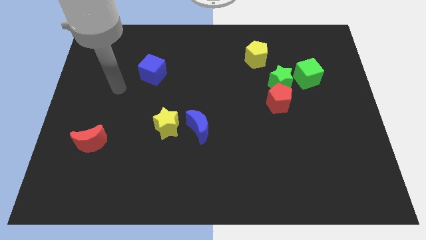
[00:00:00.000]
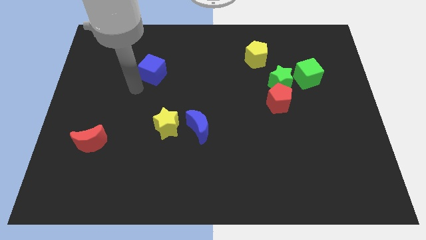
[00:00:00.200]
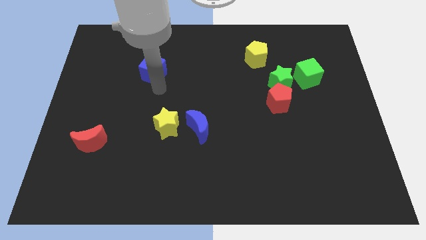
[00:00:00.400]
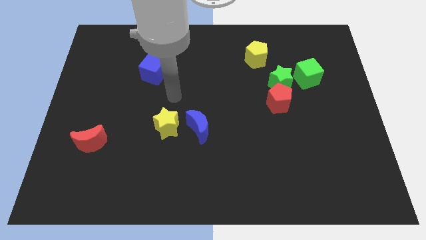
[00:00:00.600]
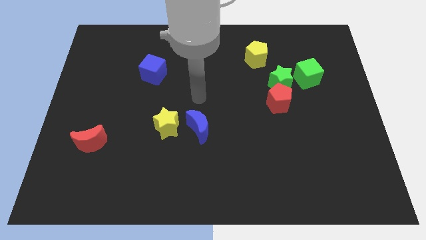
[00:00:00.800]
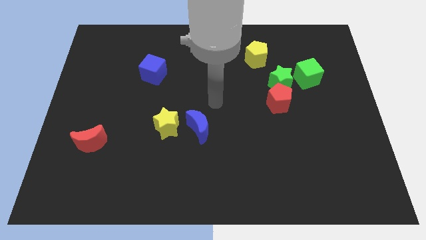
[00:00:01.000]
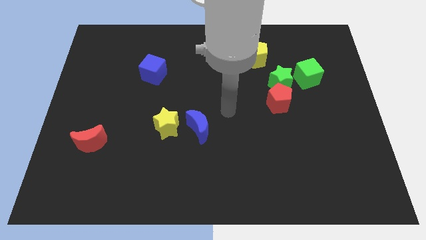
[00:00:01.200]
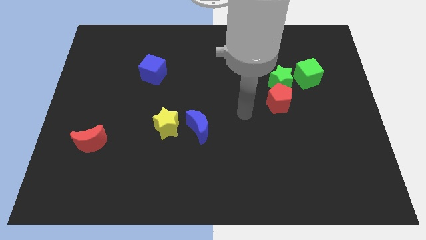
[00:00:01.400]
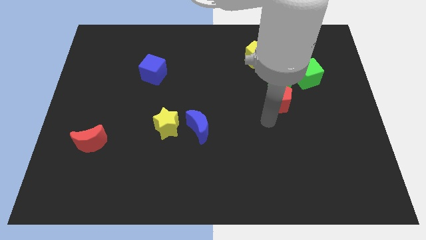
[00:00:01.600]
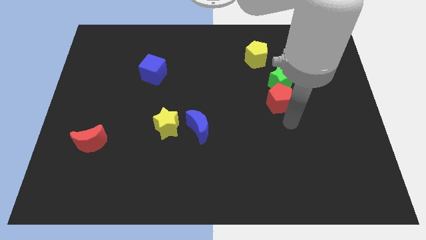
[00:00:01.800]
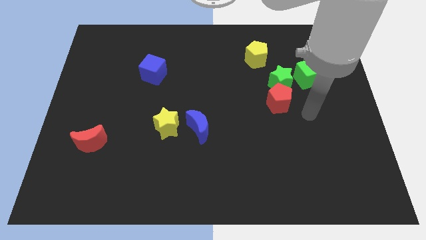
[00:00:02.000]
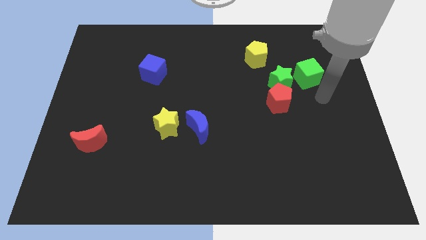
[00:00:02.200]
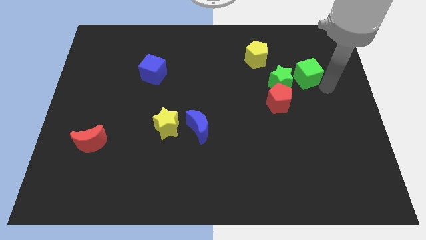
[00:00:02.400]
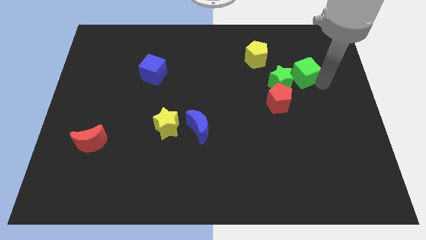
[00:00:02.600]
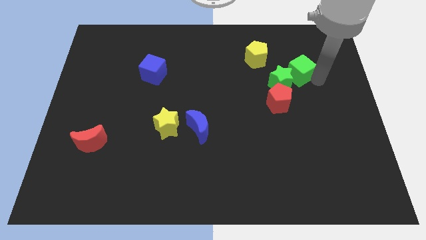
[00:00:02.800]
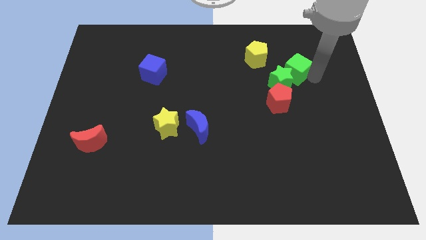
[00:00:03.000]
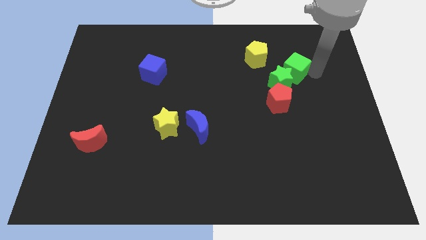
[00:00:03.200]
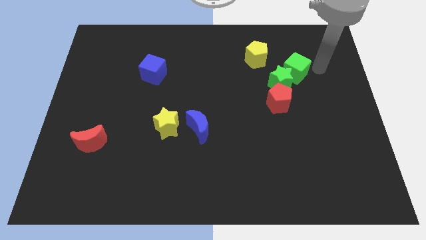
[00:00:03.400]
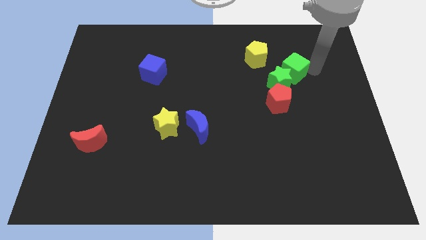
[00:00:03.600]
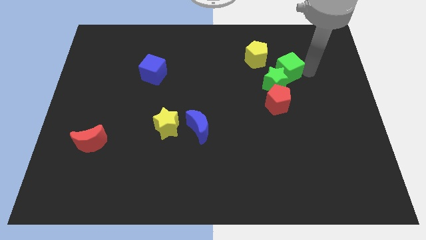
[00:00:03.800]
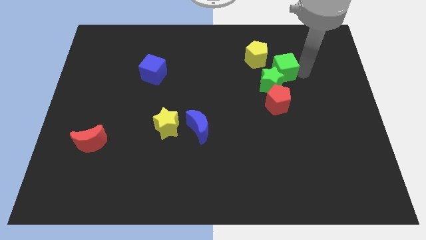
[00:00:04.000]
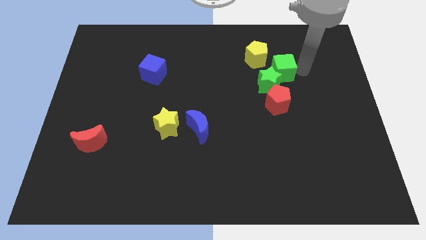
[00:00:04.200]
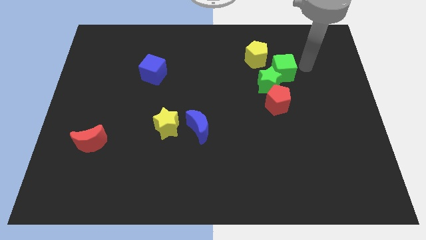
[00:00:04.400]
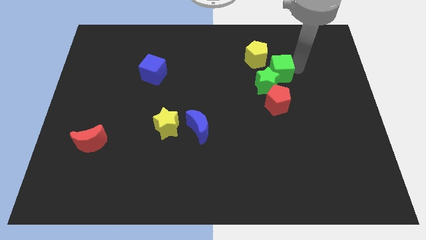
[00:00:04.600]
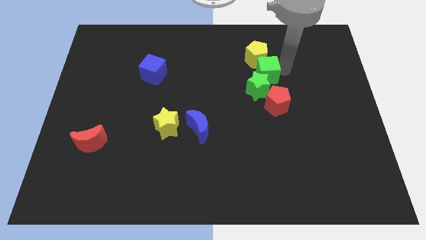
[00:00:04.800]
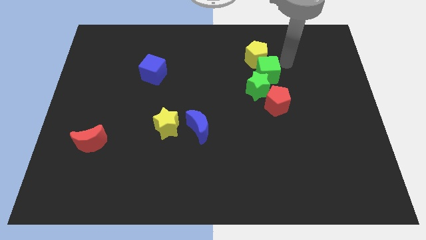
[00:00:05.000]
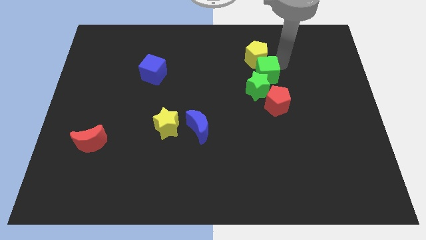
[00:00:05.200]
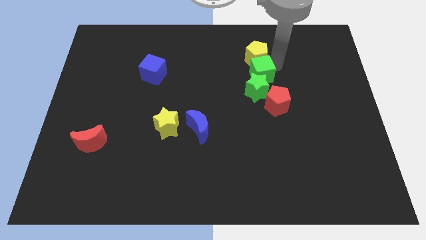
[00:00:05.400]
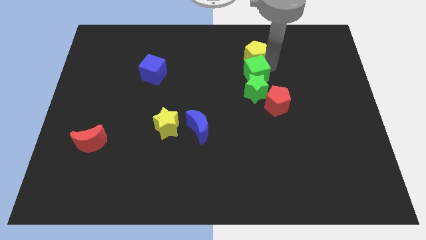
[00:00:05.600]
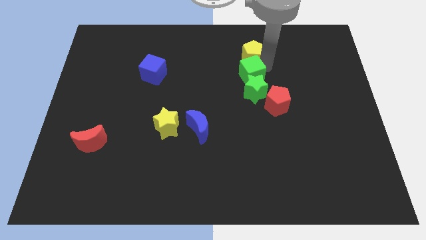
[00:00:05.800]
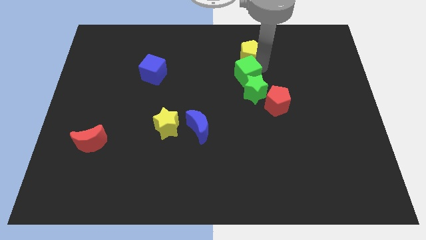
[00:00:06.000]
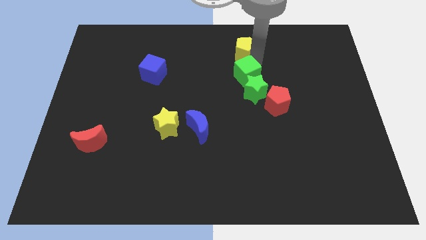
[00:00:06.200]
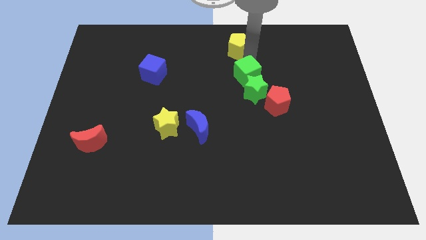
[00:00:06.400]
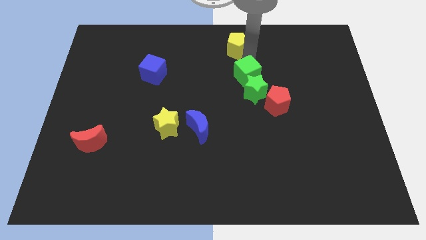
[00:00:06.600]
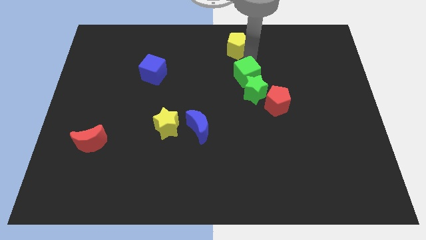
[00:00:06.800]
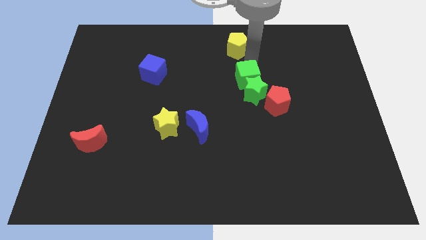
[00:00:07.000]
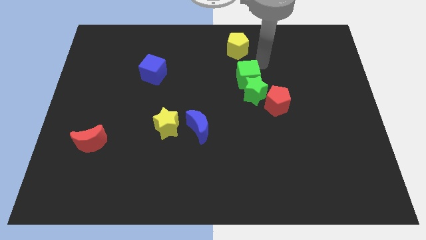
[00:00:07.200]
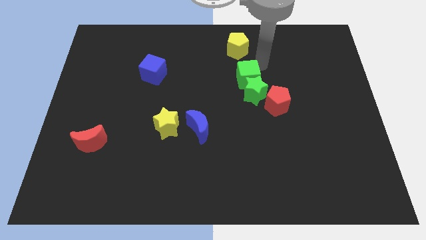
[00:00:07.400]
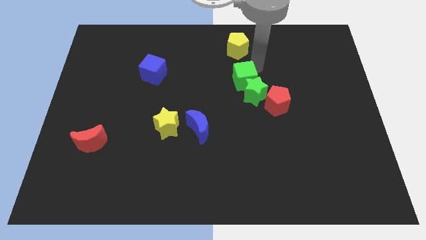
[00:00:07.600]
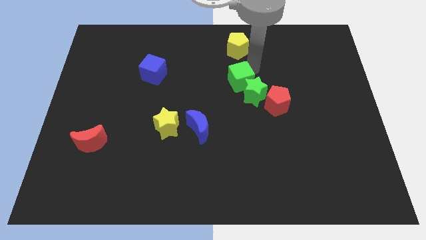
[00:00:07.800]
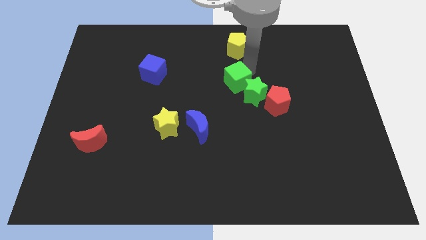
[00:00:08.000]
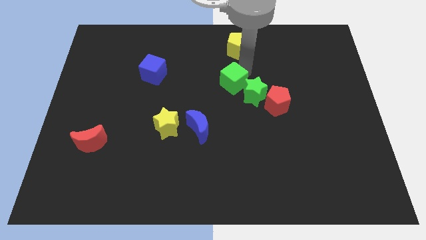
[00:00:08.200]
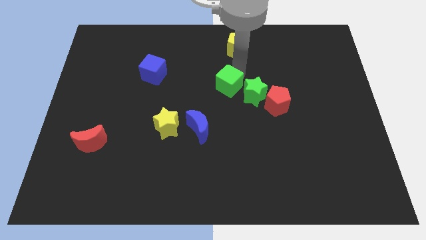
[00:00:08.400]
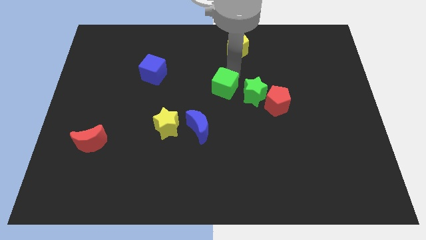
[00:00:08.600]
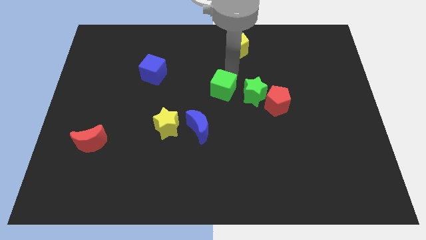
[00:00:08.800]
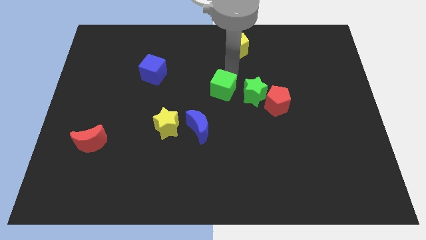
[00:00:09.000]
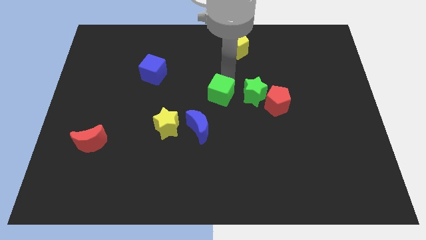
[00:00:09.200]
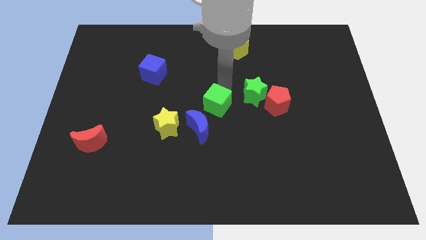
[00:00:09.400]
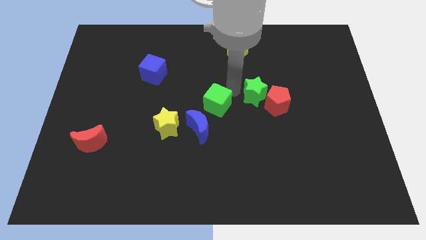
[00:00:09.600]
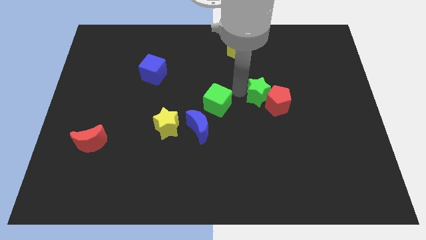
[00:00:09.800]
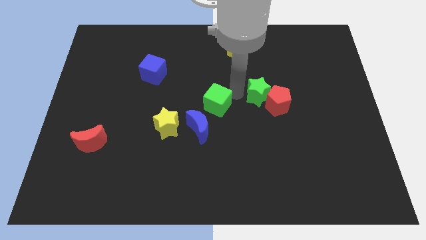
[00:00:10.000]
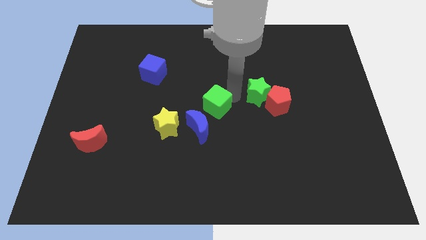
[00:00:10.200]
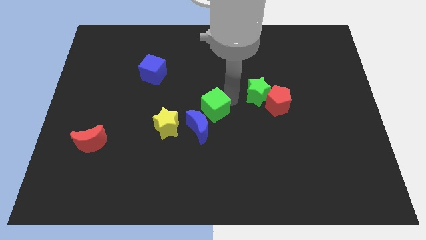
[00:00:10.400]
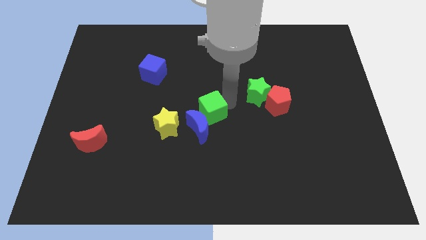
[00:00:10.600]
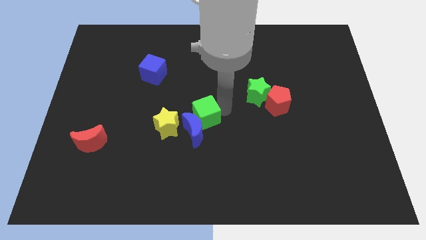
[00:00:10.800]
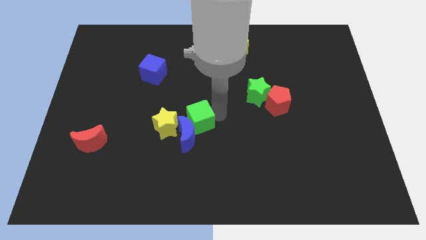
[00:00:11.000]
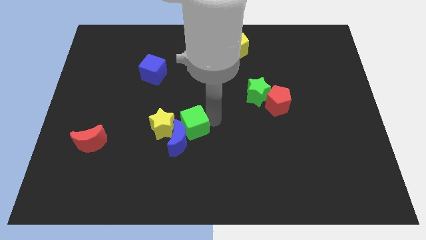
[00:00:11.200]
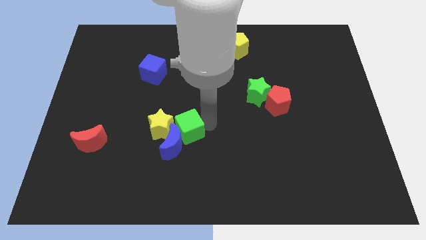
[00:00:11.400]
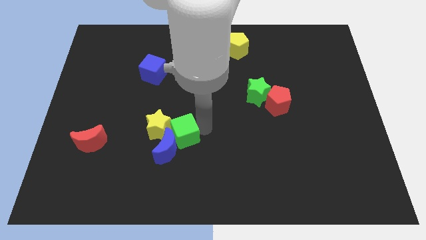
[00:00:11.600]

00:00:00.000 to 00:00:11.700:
slide the green cube to the yellow star

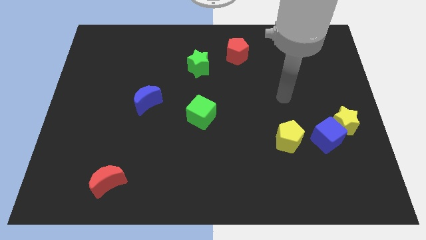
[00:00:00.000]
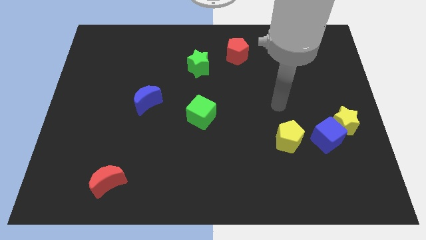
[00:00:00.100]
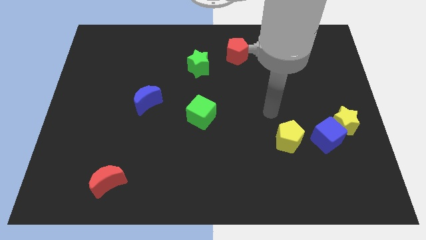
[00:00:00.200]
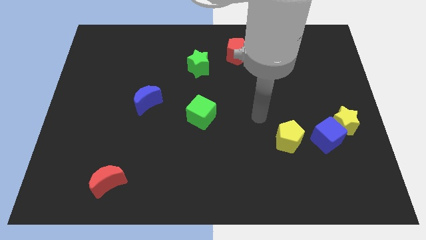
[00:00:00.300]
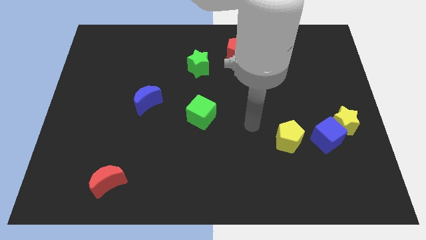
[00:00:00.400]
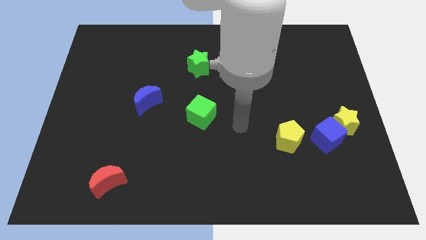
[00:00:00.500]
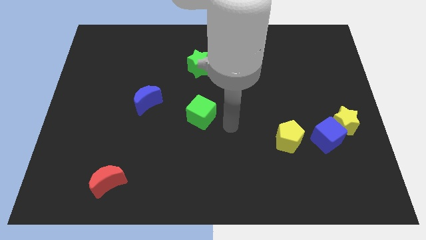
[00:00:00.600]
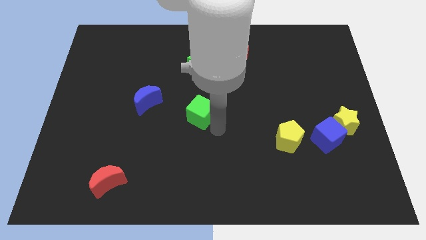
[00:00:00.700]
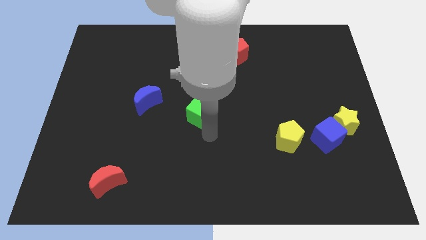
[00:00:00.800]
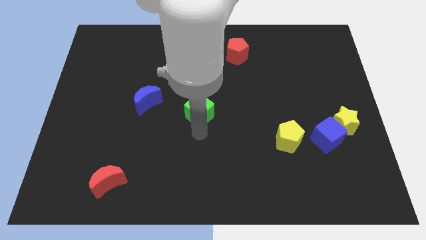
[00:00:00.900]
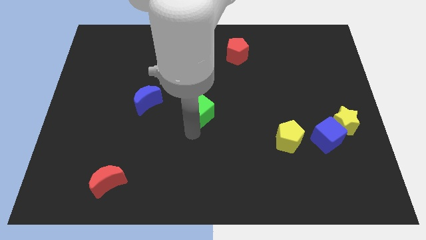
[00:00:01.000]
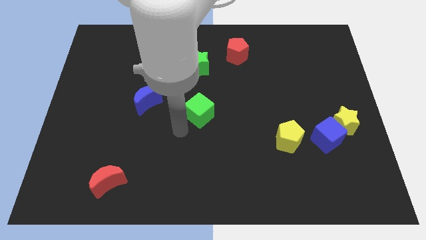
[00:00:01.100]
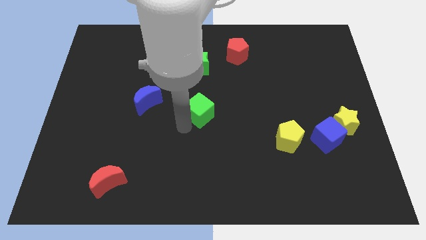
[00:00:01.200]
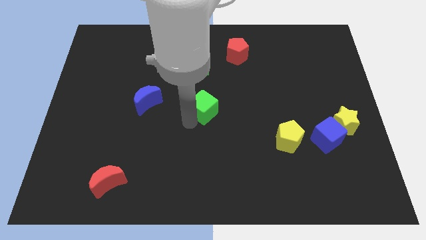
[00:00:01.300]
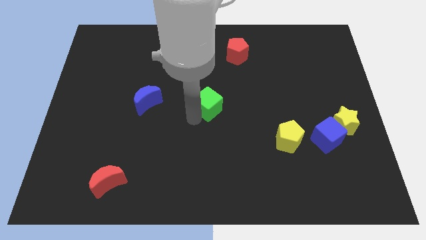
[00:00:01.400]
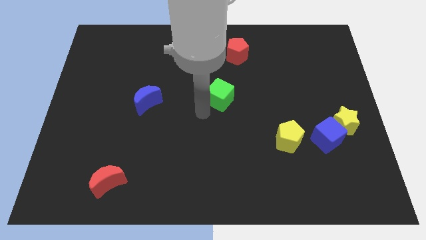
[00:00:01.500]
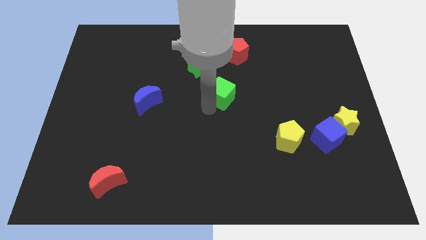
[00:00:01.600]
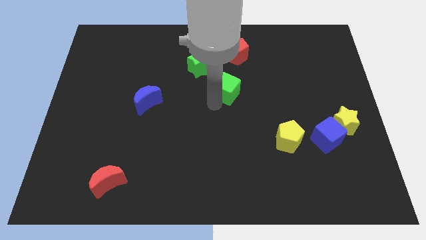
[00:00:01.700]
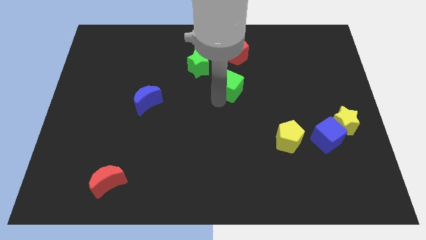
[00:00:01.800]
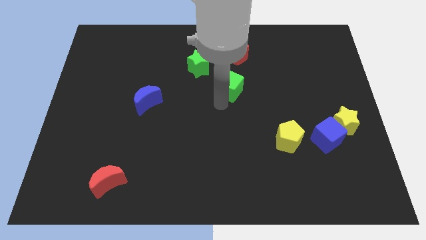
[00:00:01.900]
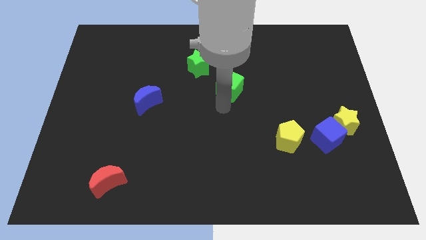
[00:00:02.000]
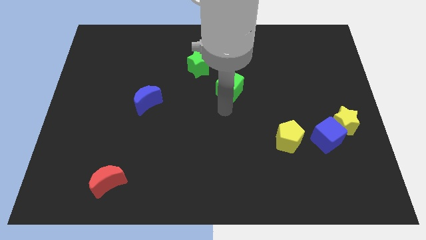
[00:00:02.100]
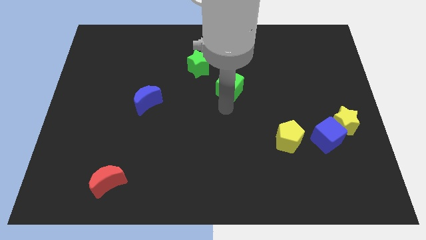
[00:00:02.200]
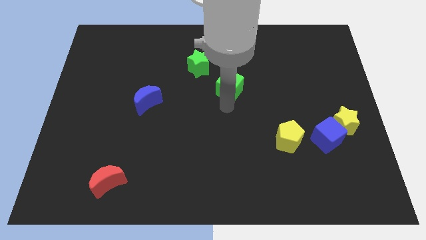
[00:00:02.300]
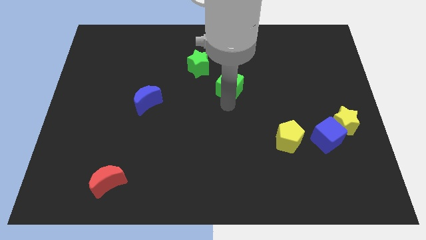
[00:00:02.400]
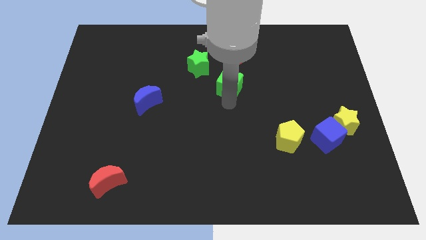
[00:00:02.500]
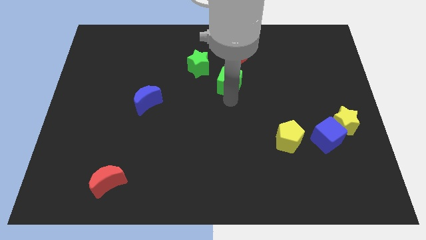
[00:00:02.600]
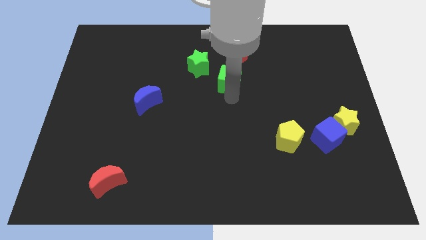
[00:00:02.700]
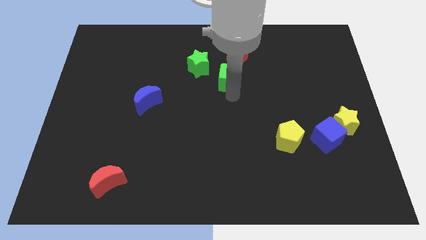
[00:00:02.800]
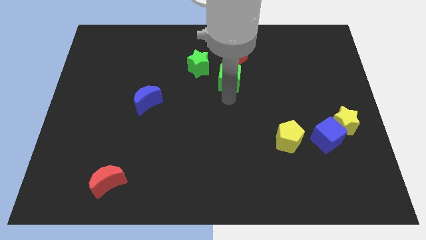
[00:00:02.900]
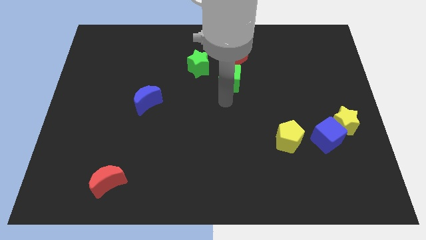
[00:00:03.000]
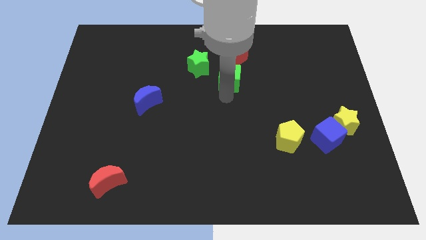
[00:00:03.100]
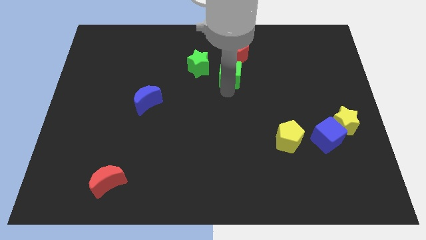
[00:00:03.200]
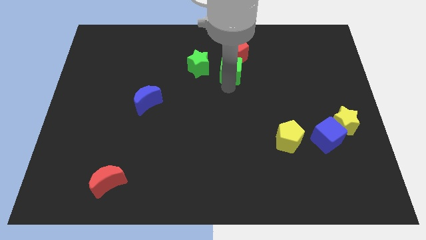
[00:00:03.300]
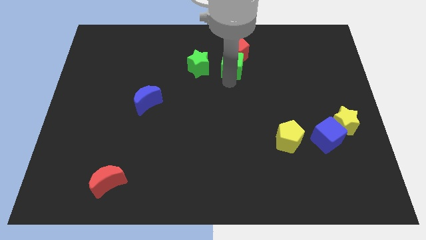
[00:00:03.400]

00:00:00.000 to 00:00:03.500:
push the green cube to the red pentagon
